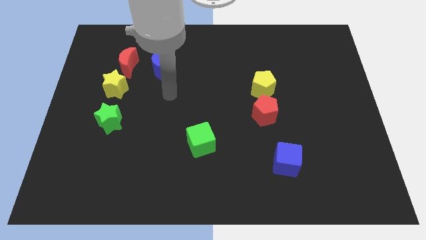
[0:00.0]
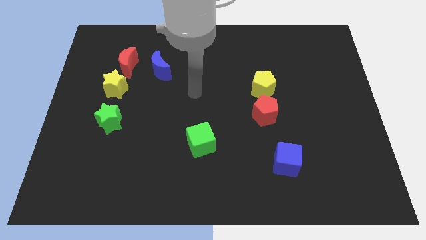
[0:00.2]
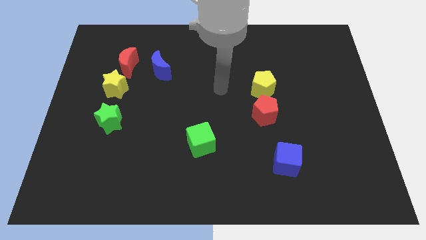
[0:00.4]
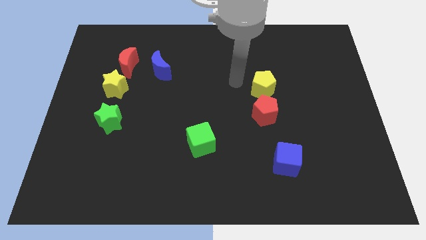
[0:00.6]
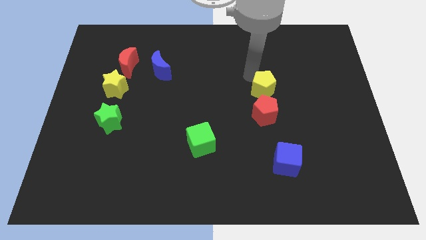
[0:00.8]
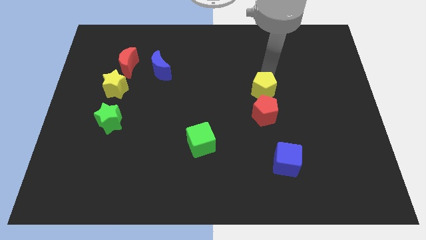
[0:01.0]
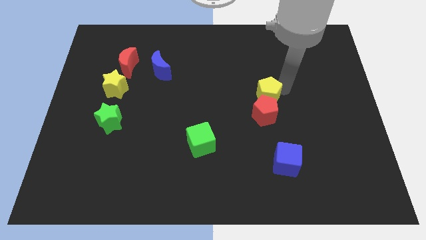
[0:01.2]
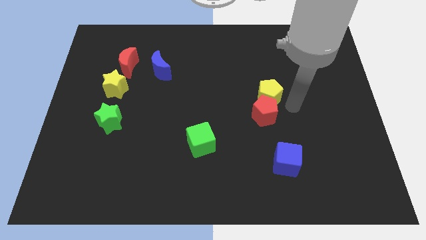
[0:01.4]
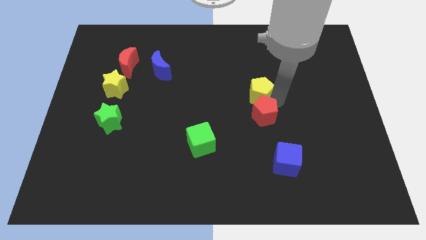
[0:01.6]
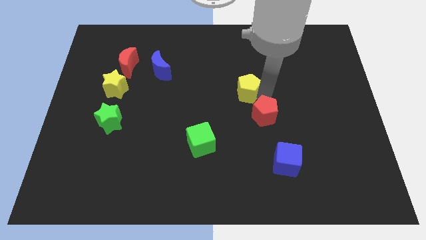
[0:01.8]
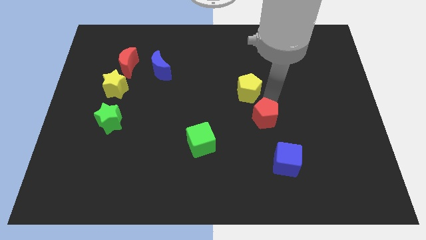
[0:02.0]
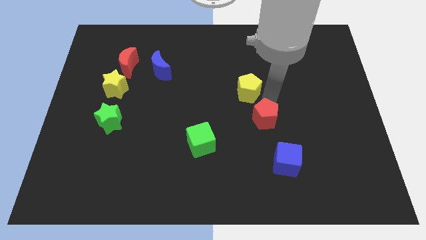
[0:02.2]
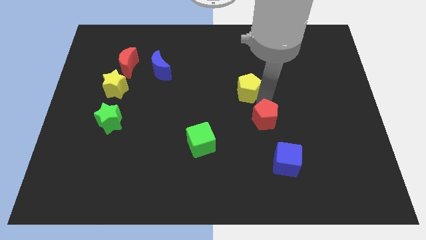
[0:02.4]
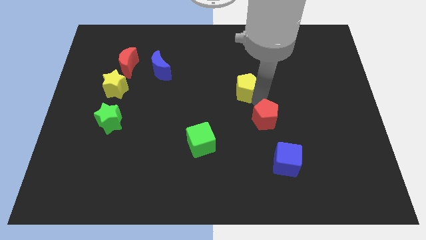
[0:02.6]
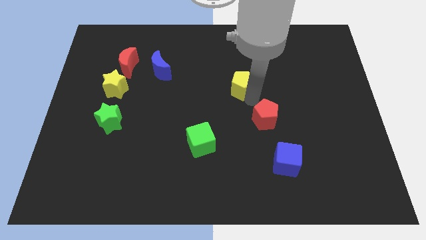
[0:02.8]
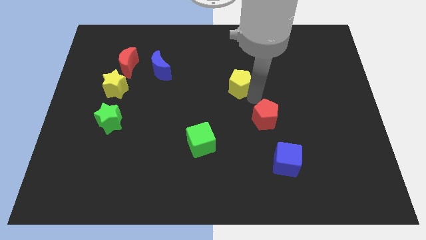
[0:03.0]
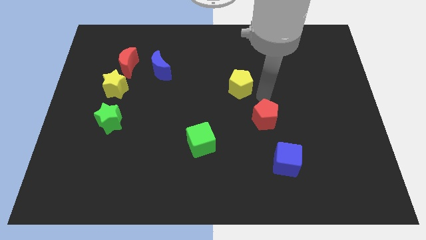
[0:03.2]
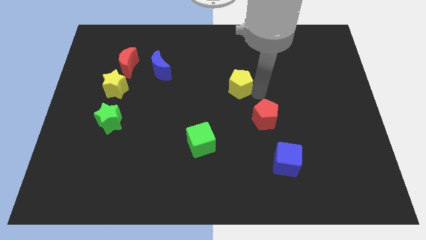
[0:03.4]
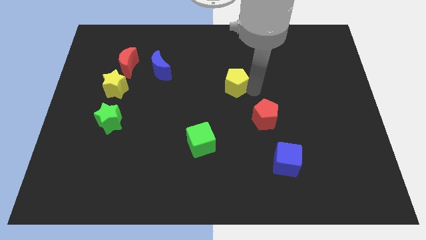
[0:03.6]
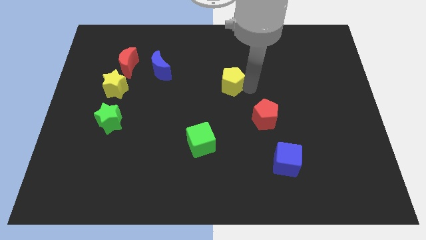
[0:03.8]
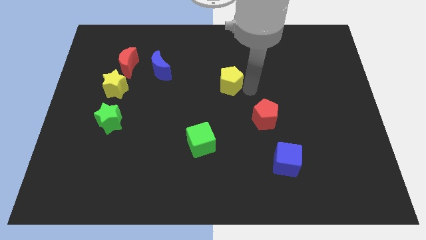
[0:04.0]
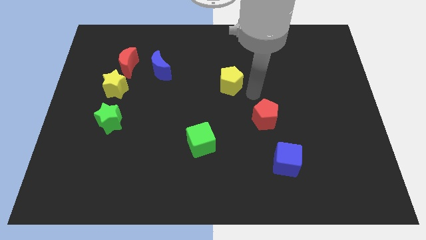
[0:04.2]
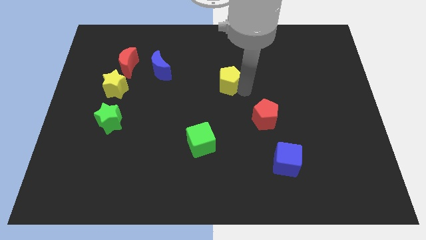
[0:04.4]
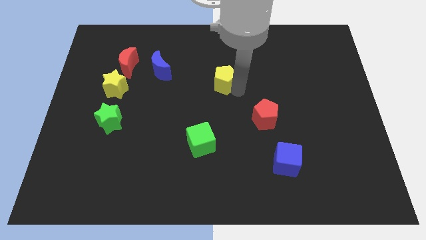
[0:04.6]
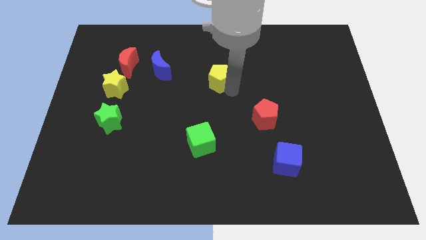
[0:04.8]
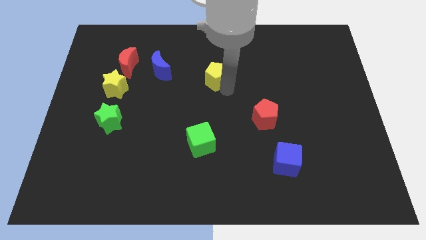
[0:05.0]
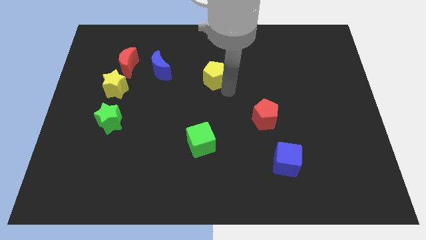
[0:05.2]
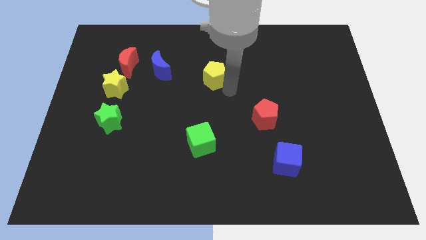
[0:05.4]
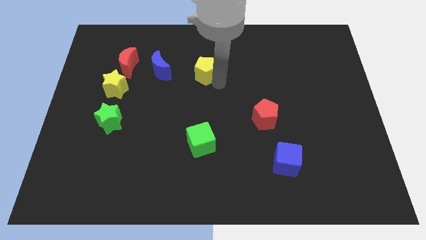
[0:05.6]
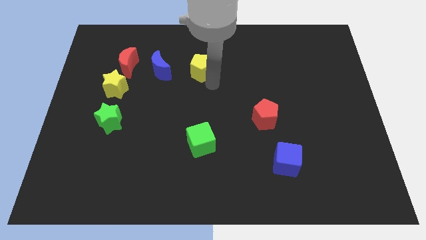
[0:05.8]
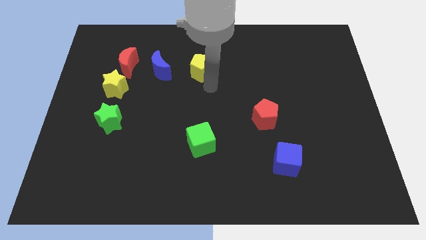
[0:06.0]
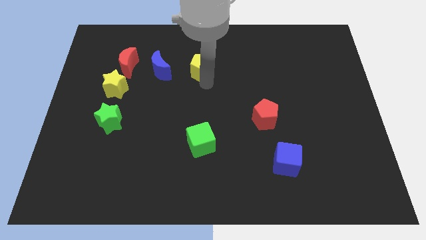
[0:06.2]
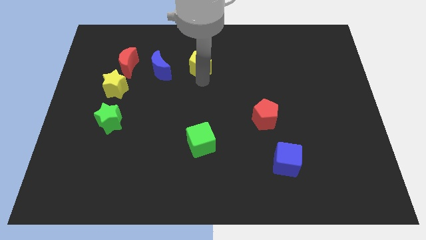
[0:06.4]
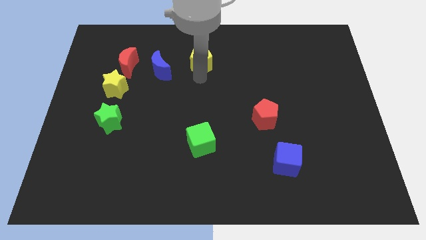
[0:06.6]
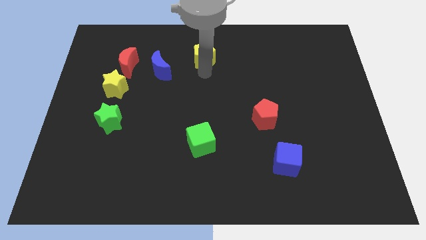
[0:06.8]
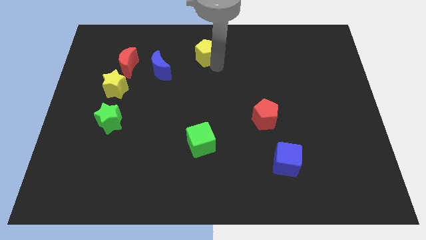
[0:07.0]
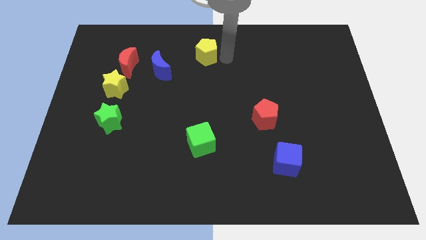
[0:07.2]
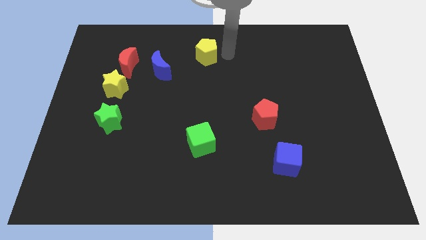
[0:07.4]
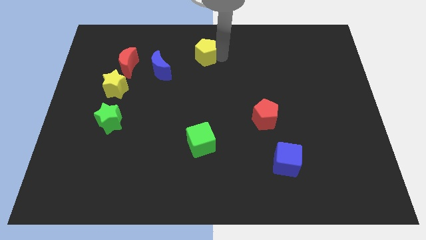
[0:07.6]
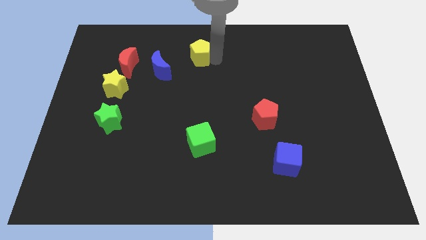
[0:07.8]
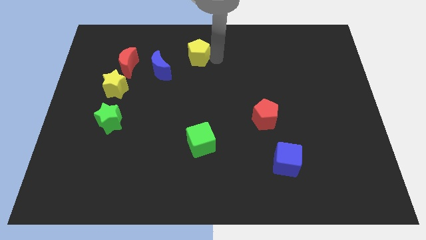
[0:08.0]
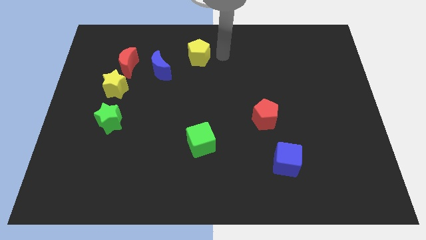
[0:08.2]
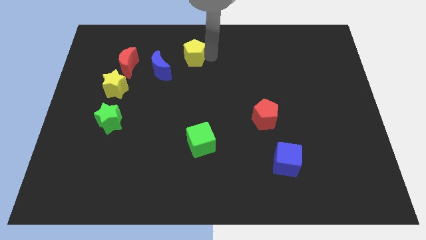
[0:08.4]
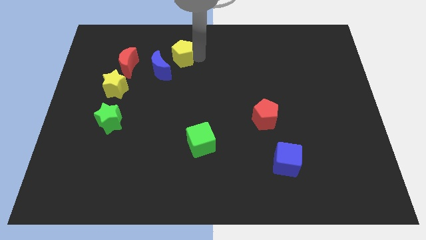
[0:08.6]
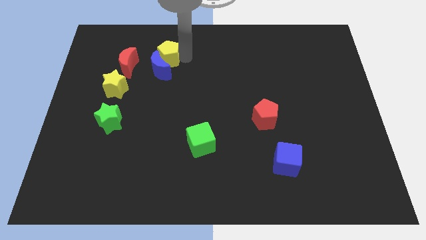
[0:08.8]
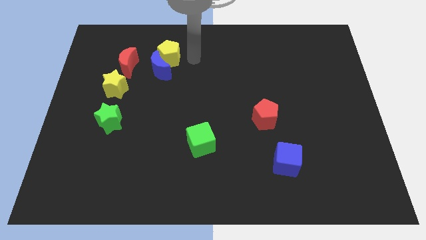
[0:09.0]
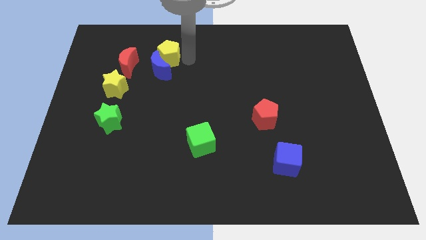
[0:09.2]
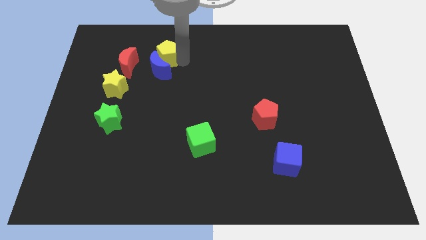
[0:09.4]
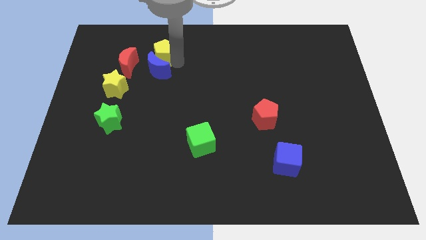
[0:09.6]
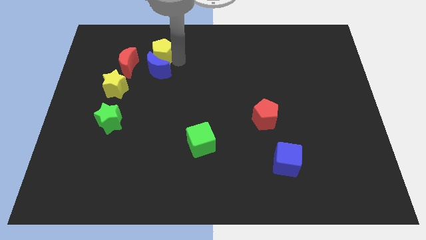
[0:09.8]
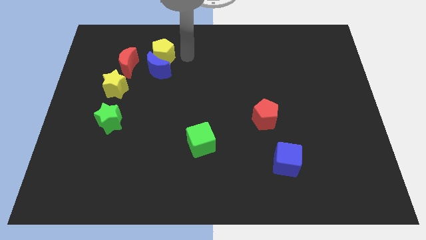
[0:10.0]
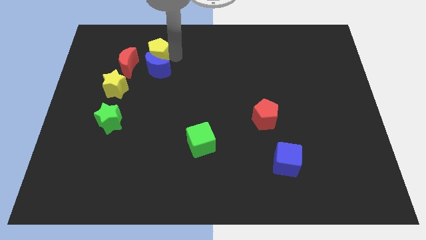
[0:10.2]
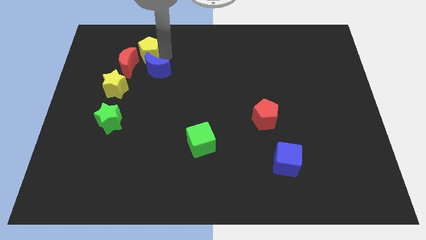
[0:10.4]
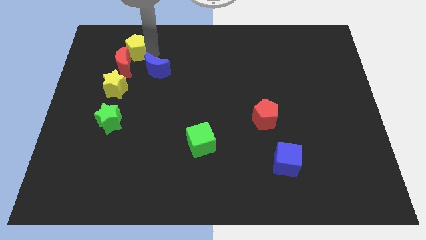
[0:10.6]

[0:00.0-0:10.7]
push the yellow pentagon above the yellow star

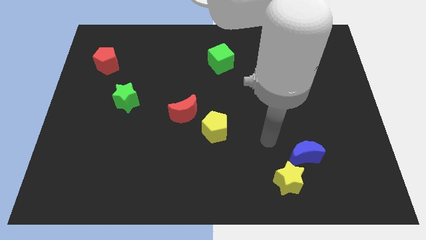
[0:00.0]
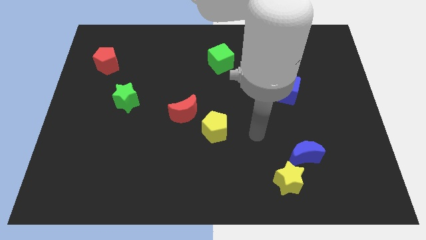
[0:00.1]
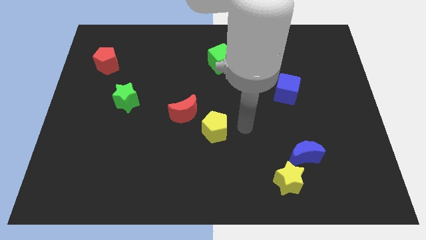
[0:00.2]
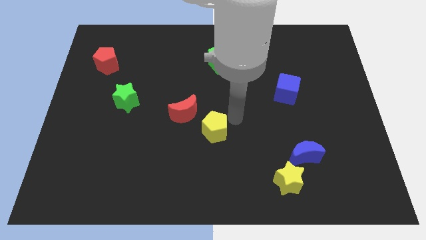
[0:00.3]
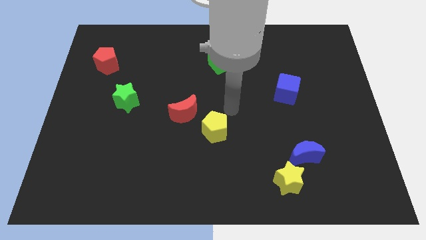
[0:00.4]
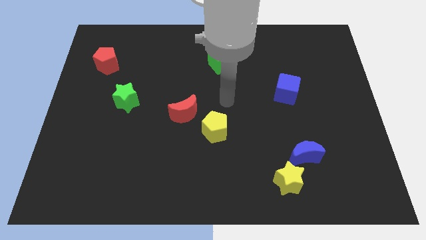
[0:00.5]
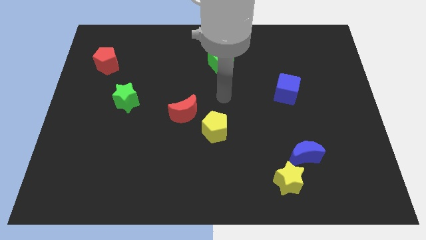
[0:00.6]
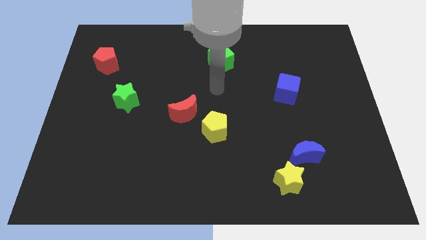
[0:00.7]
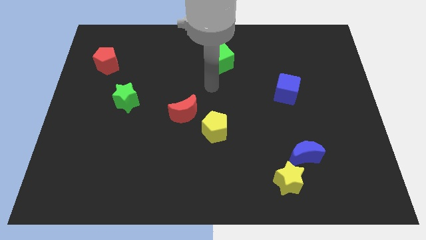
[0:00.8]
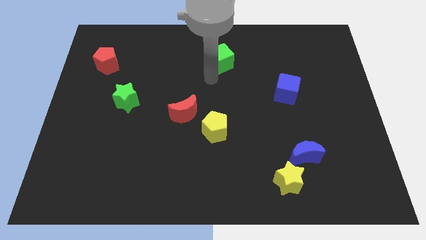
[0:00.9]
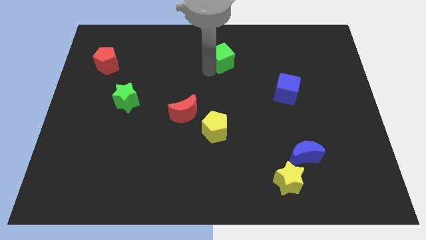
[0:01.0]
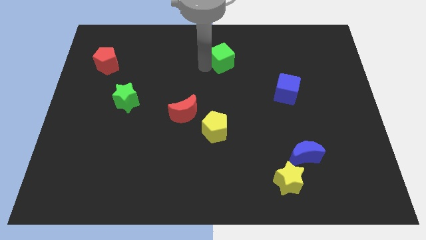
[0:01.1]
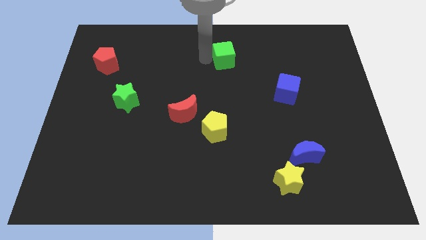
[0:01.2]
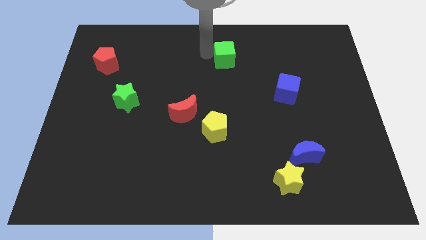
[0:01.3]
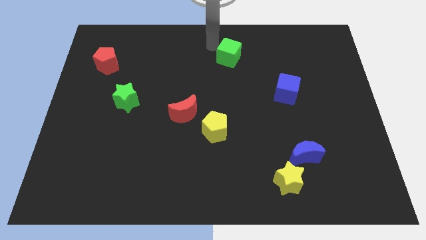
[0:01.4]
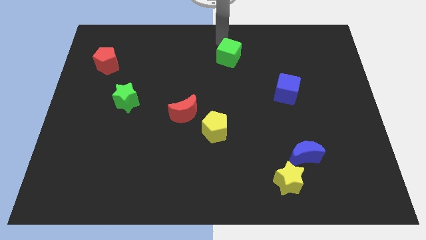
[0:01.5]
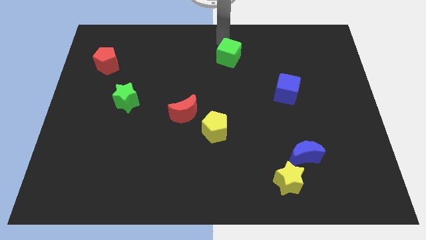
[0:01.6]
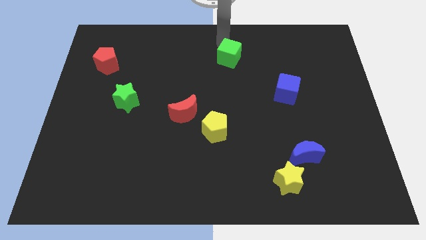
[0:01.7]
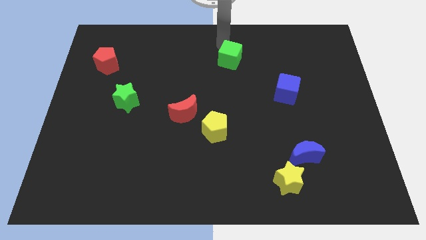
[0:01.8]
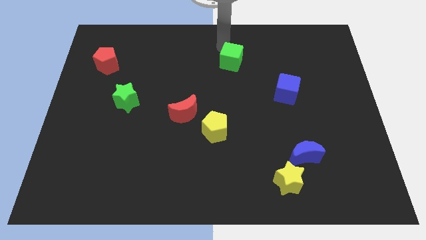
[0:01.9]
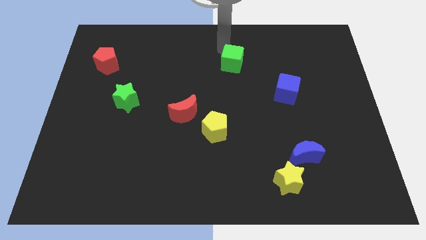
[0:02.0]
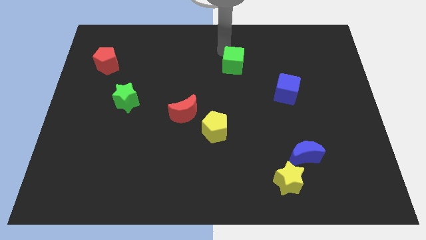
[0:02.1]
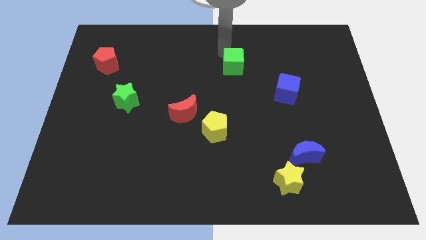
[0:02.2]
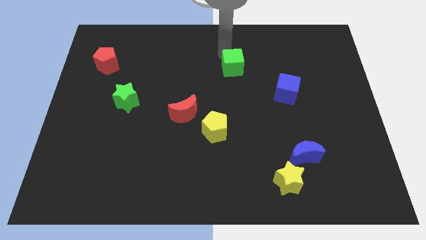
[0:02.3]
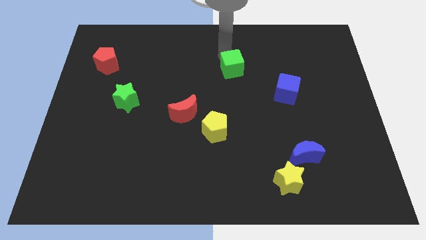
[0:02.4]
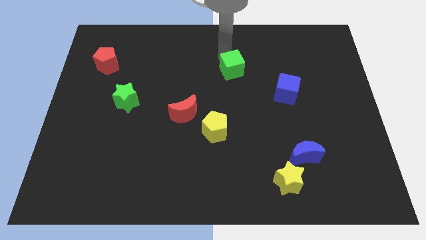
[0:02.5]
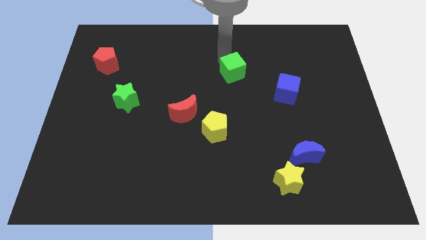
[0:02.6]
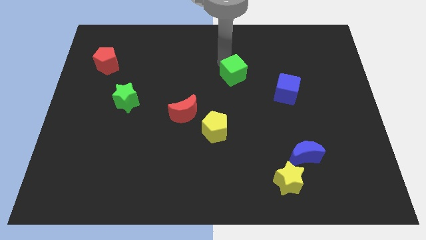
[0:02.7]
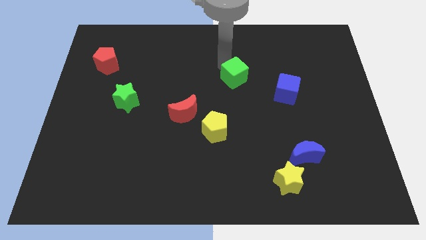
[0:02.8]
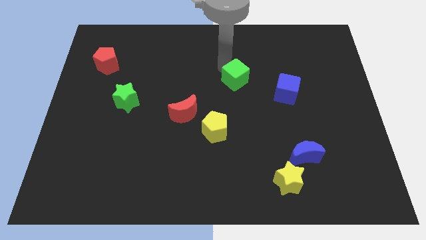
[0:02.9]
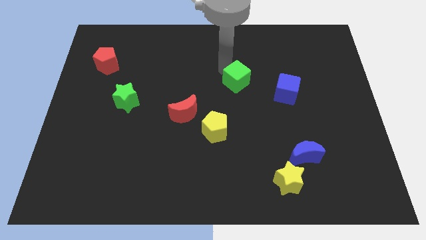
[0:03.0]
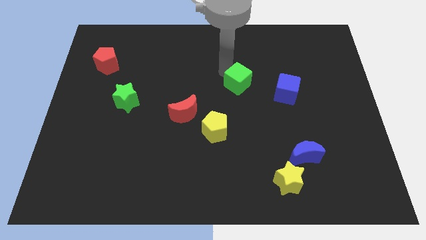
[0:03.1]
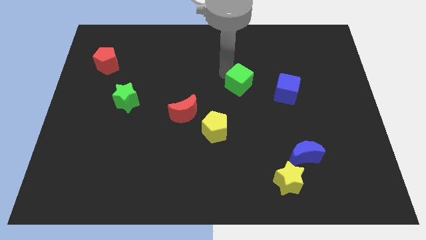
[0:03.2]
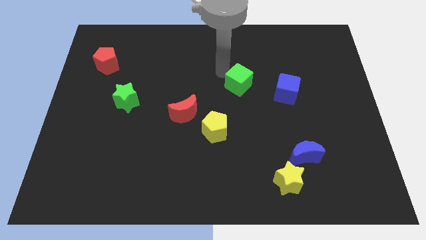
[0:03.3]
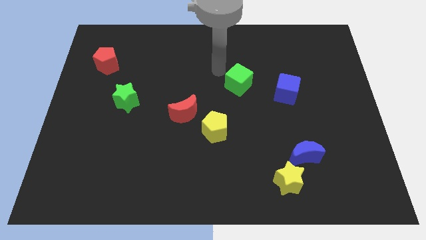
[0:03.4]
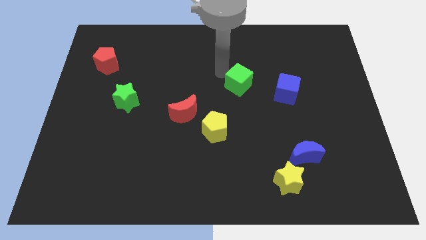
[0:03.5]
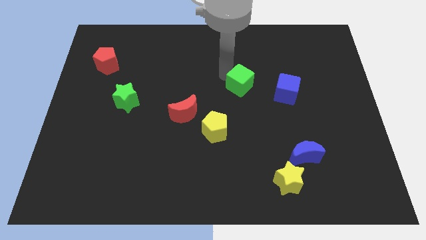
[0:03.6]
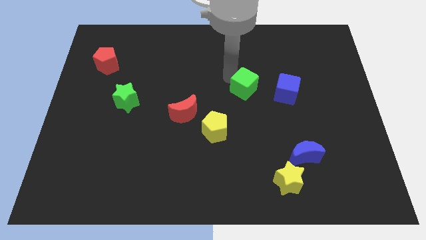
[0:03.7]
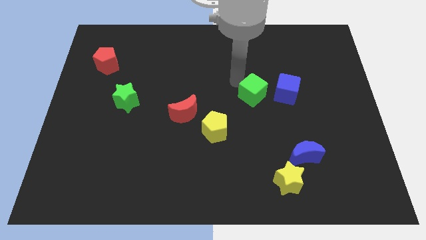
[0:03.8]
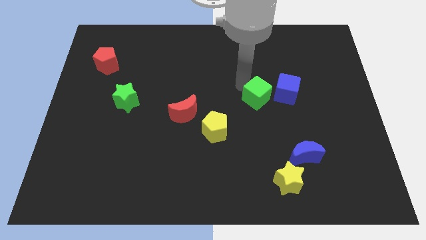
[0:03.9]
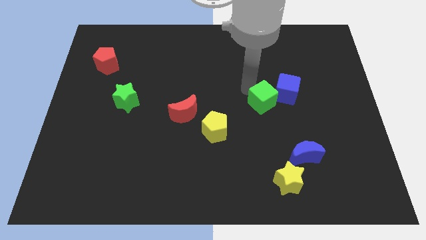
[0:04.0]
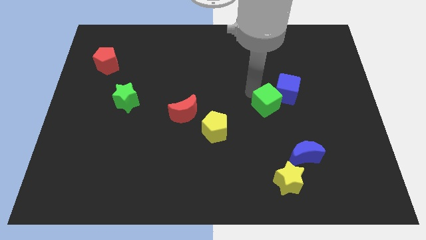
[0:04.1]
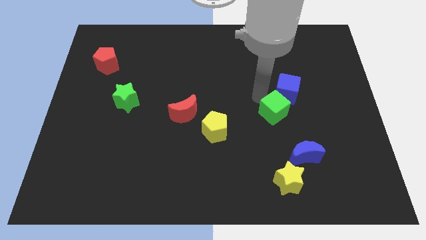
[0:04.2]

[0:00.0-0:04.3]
move the green cube to the bottom of the blue cube
